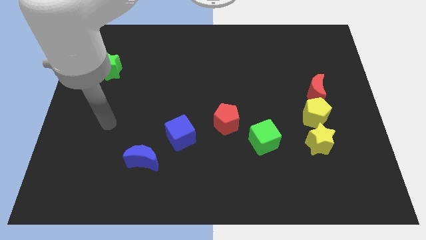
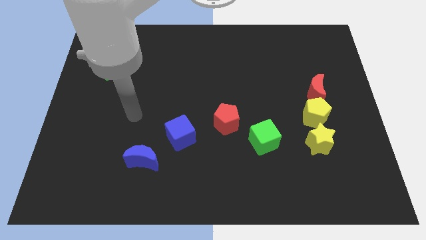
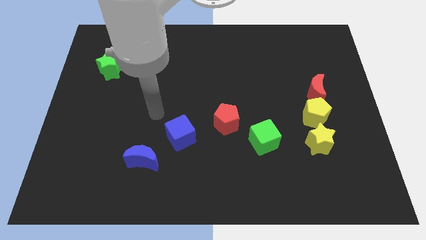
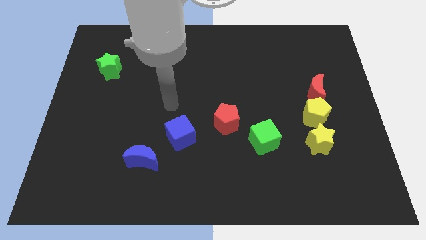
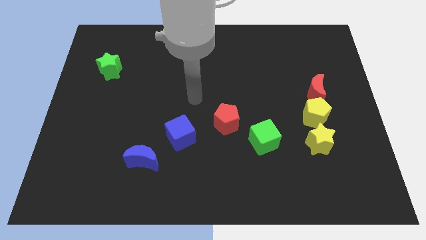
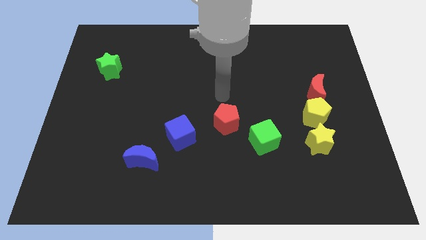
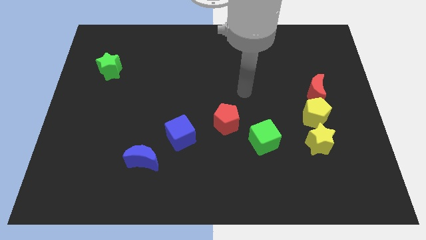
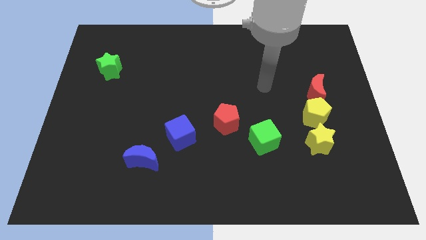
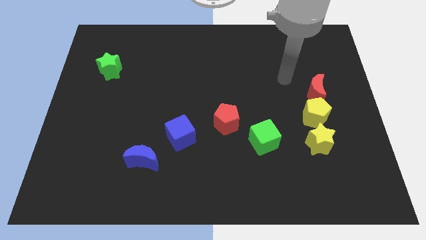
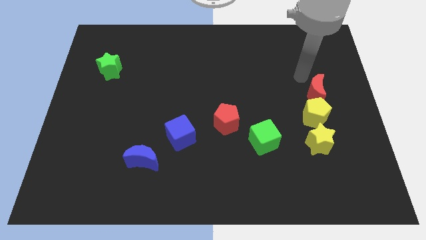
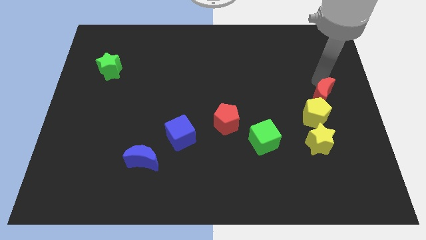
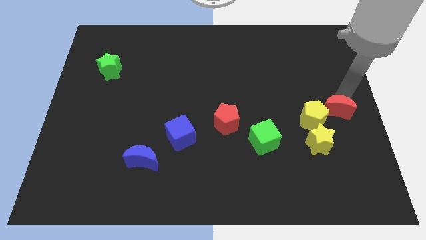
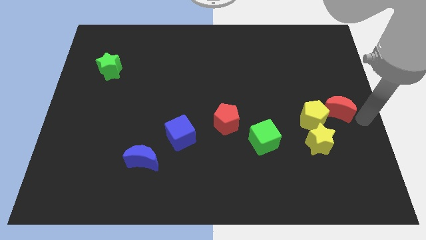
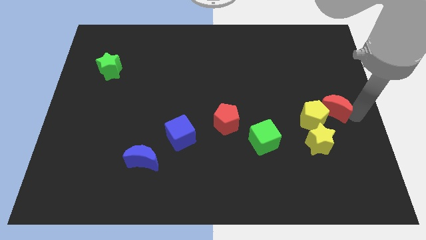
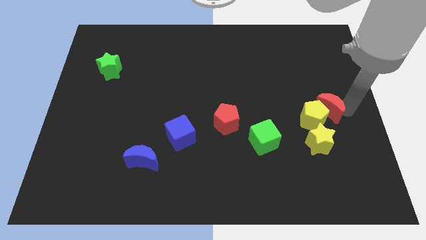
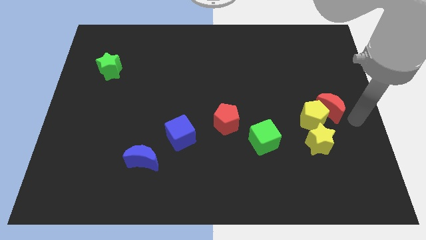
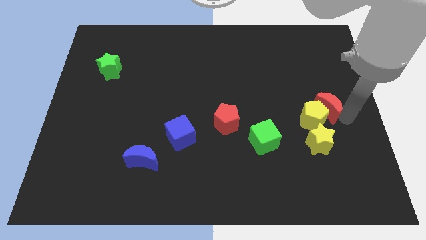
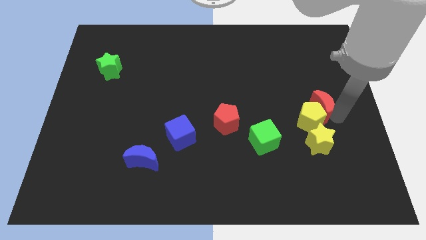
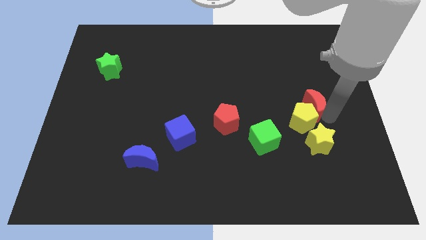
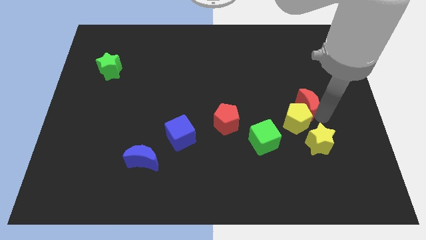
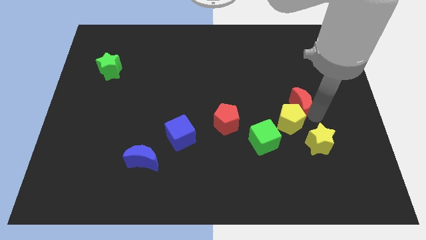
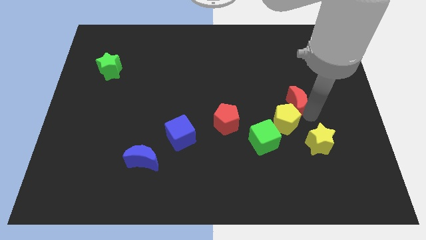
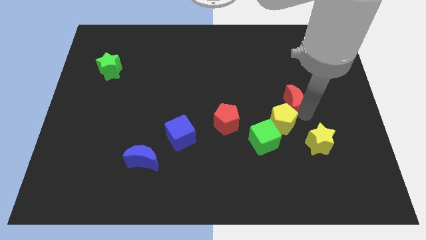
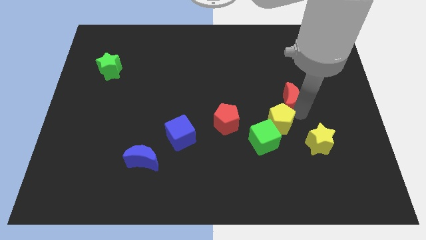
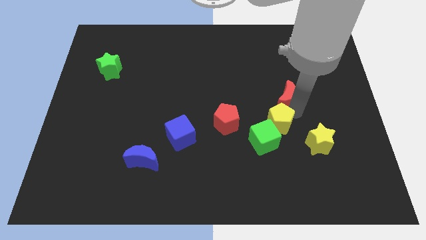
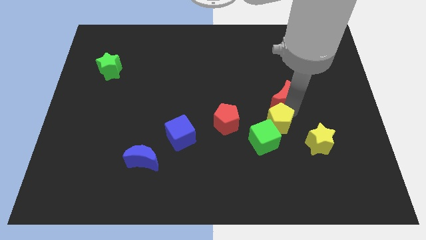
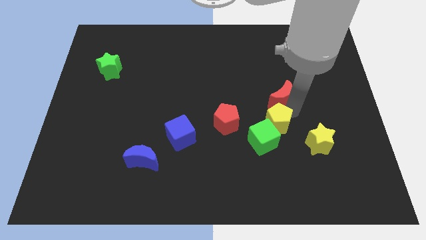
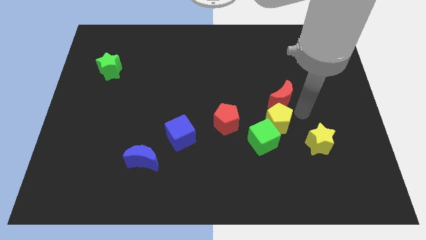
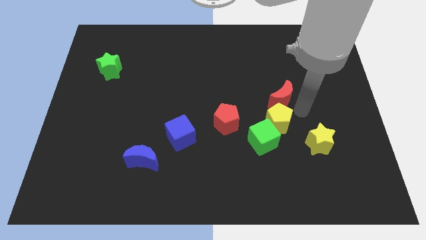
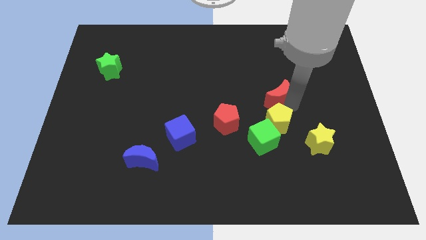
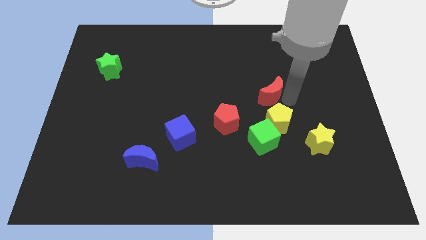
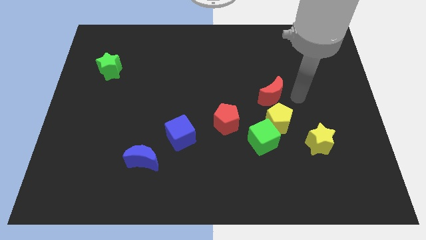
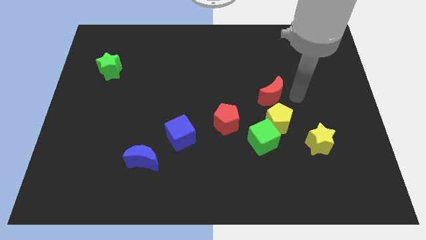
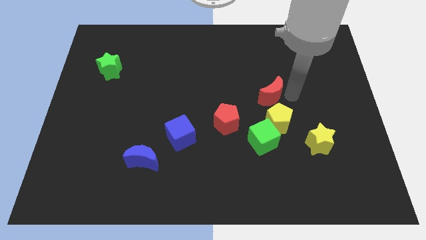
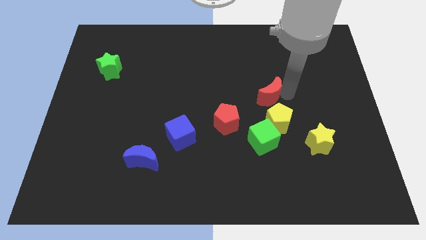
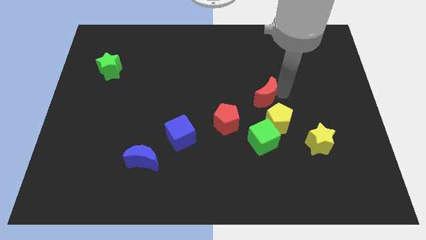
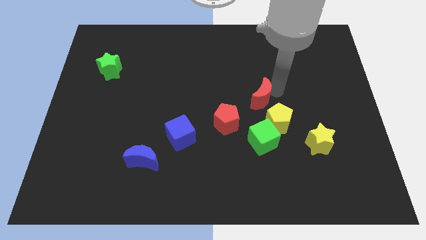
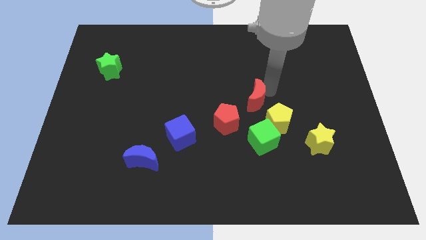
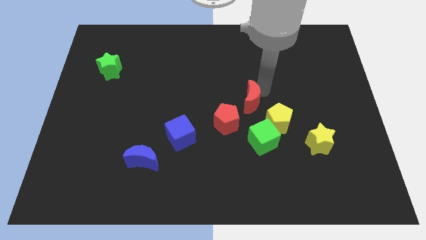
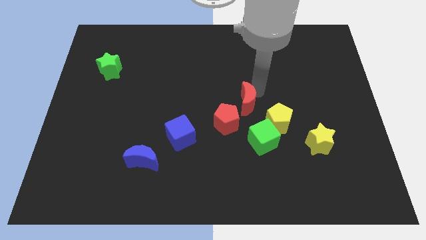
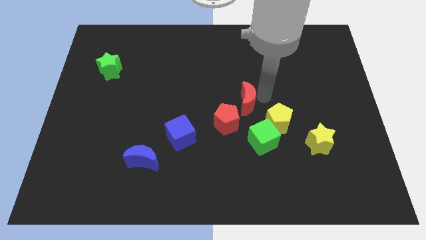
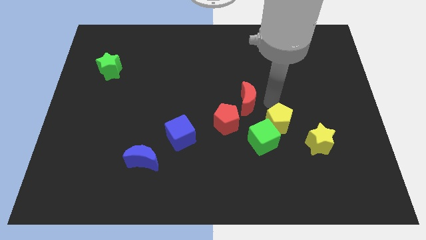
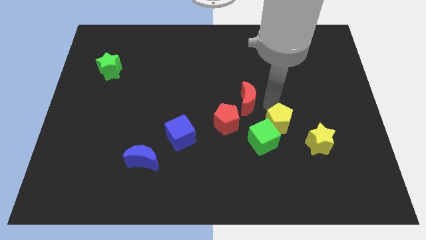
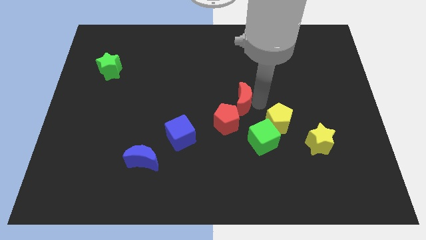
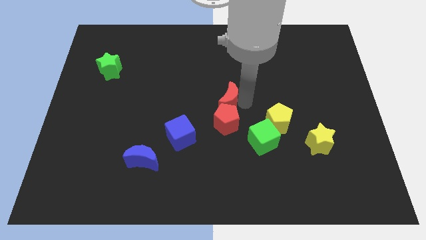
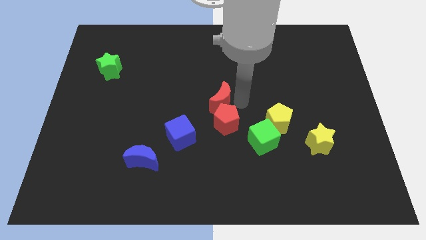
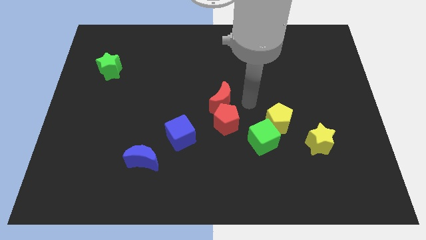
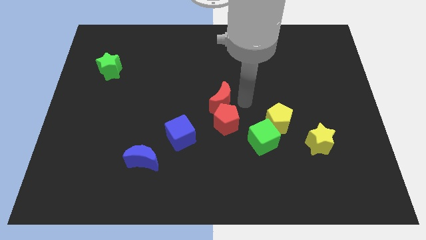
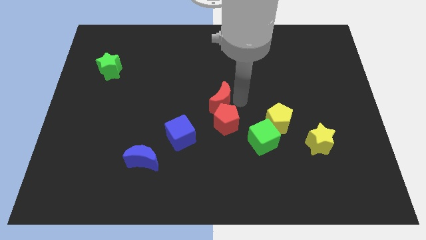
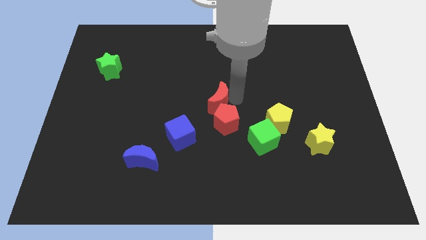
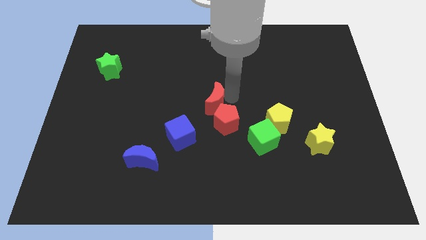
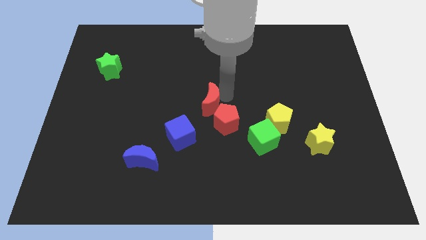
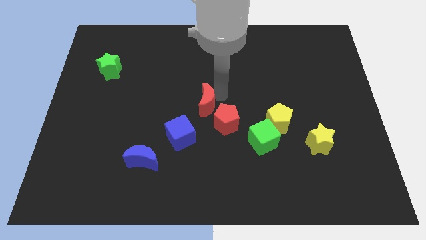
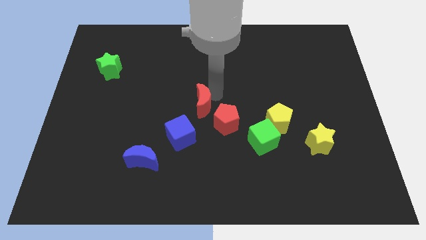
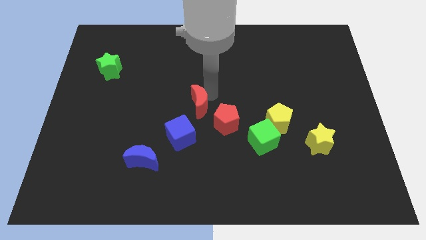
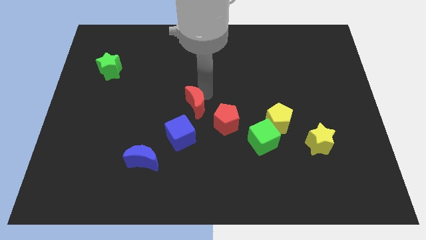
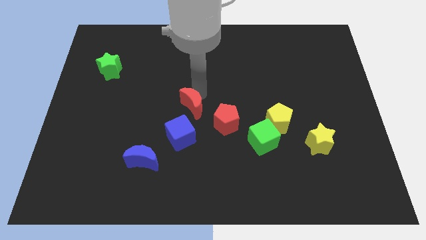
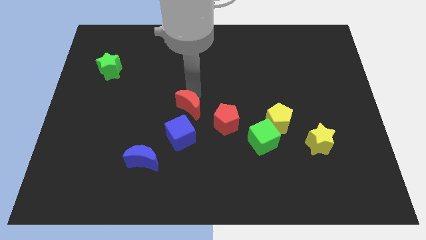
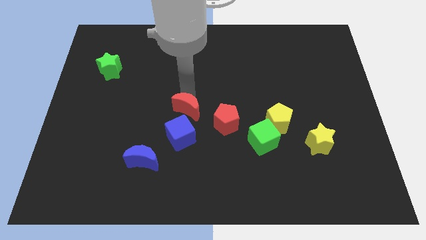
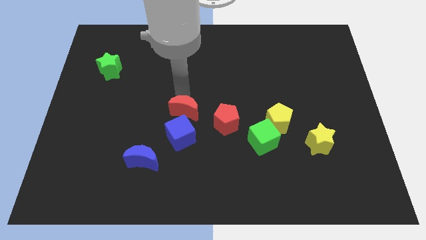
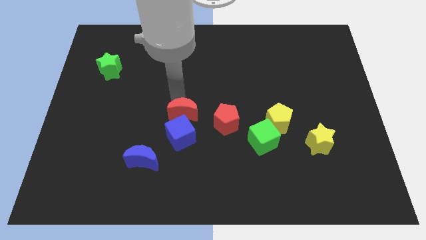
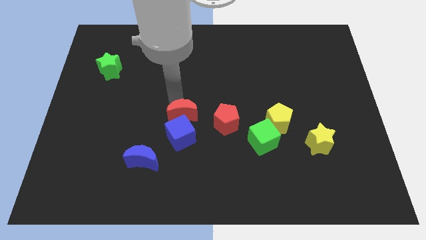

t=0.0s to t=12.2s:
push the red moon close to the blue cube
